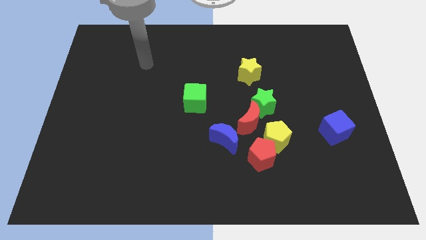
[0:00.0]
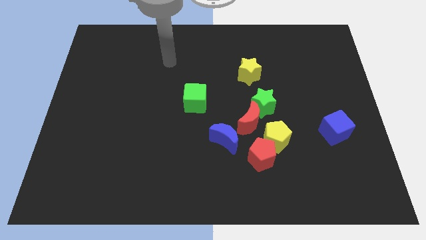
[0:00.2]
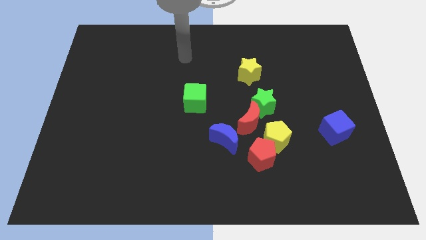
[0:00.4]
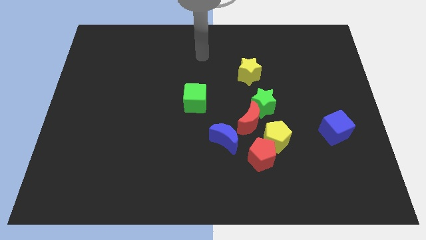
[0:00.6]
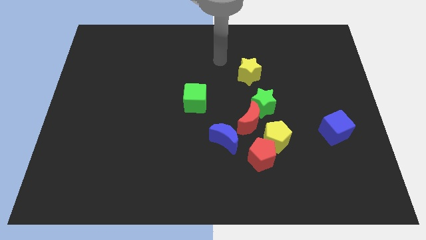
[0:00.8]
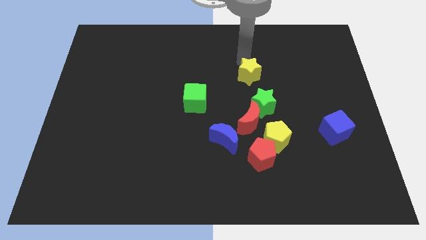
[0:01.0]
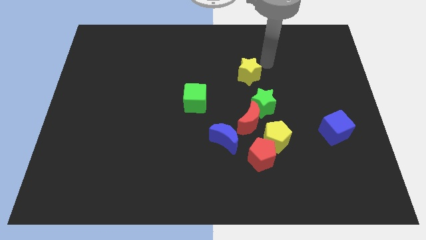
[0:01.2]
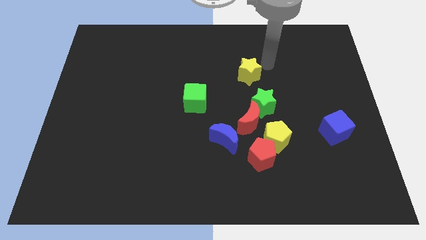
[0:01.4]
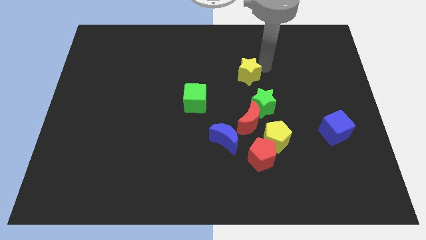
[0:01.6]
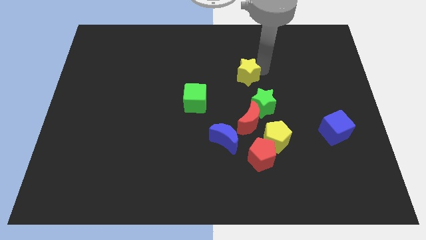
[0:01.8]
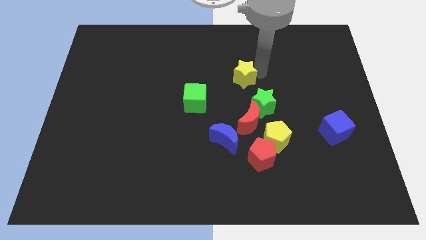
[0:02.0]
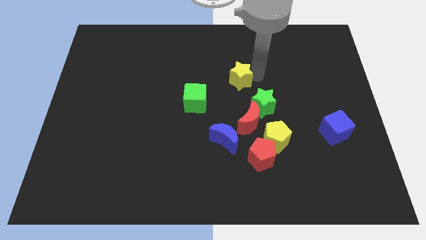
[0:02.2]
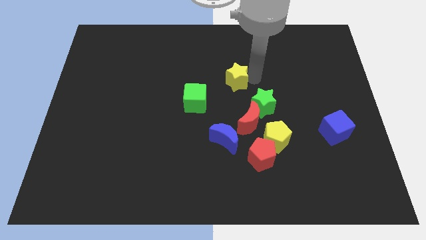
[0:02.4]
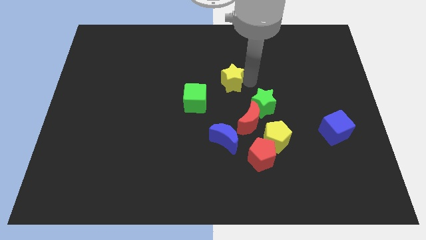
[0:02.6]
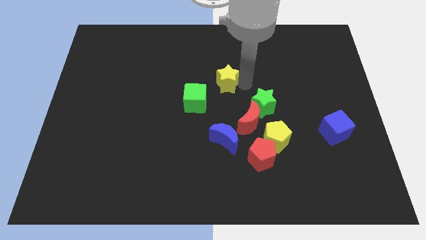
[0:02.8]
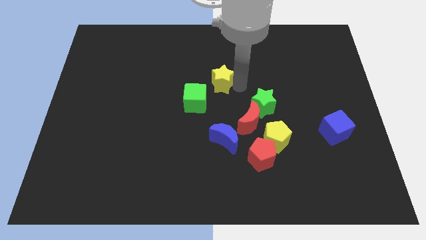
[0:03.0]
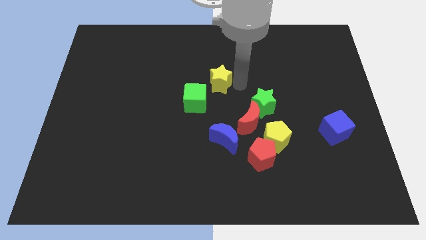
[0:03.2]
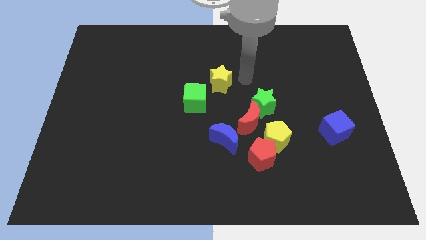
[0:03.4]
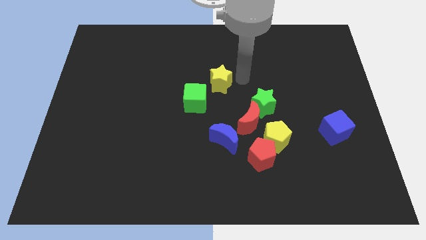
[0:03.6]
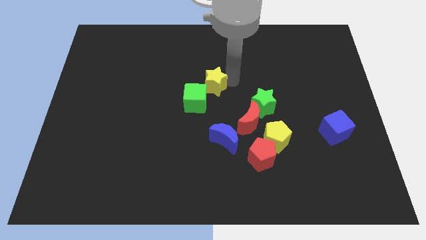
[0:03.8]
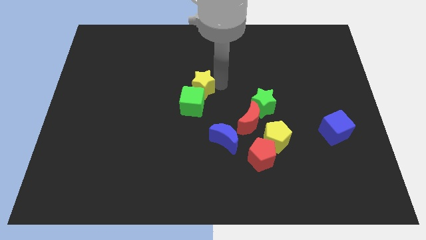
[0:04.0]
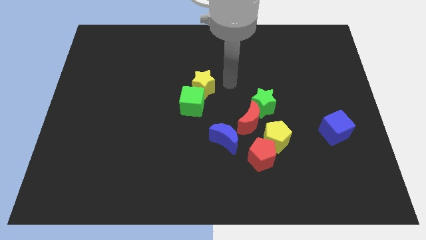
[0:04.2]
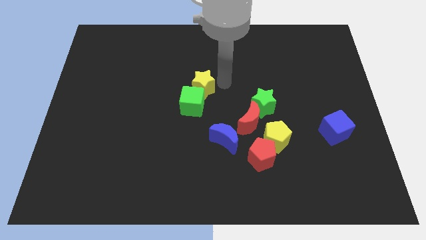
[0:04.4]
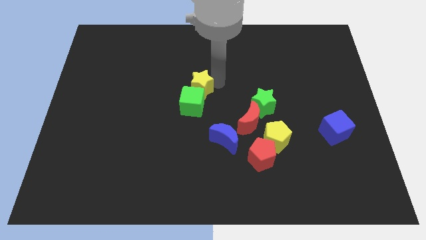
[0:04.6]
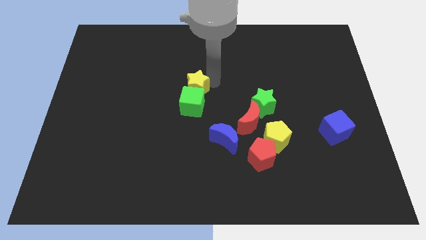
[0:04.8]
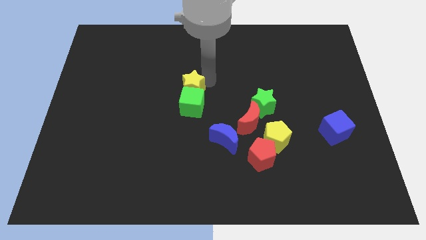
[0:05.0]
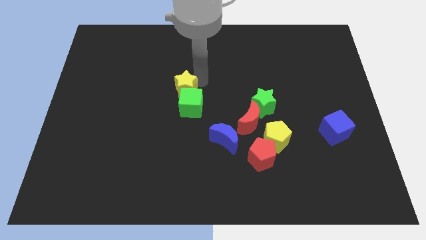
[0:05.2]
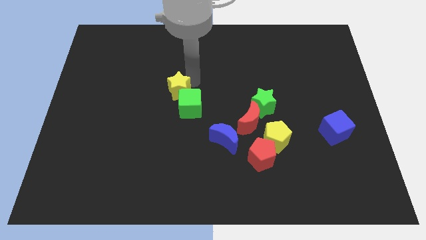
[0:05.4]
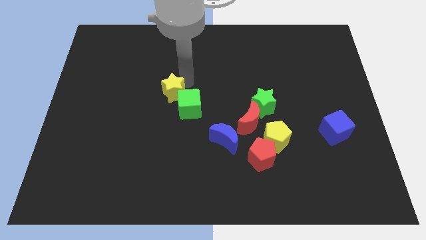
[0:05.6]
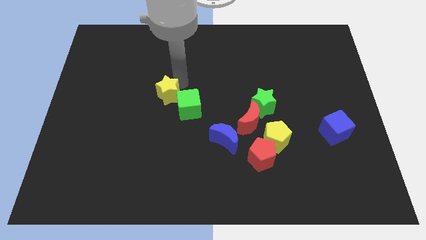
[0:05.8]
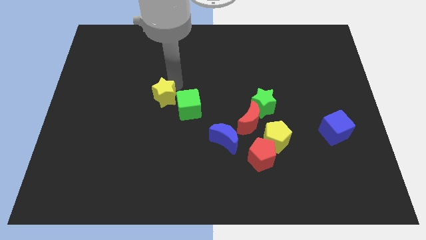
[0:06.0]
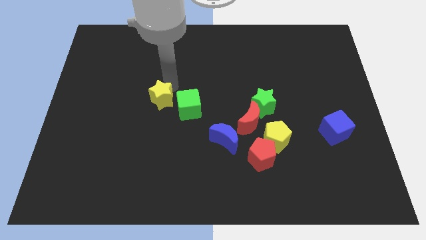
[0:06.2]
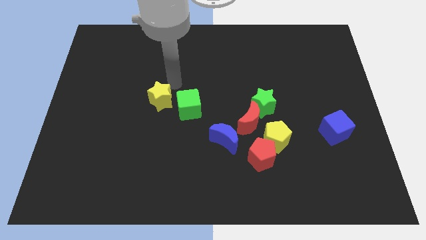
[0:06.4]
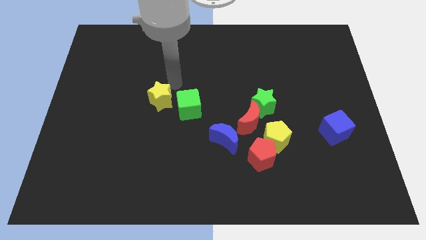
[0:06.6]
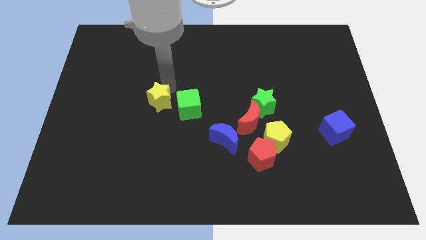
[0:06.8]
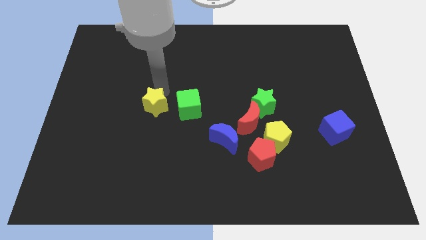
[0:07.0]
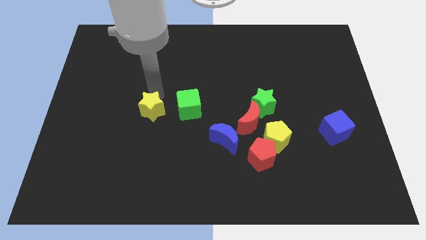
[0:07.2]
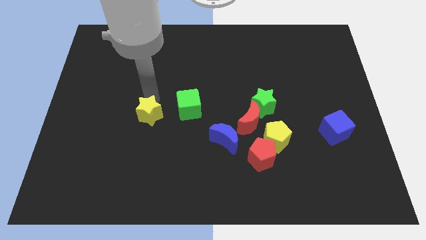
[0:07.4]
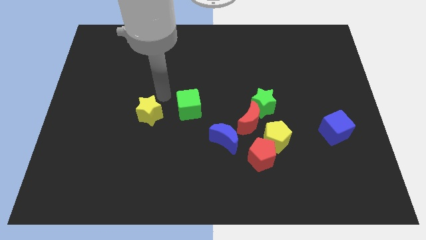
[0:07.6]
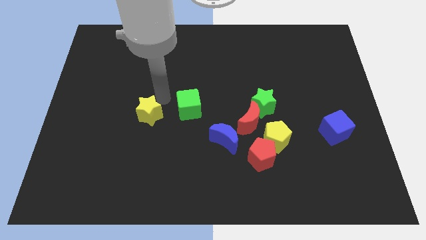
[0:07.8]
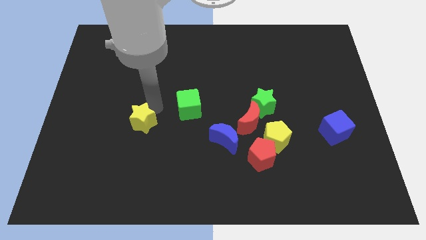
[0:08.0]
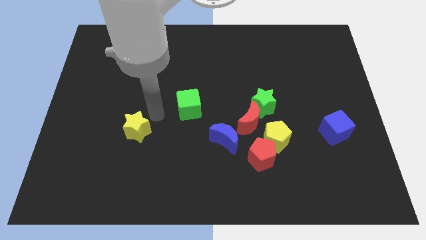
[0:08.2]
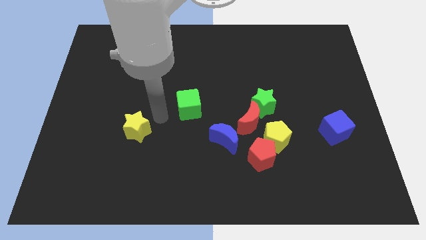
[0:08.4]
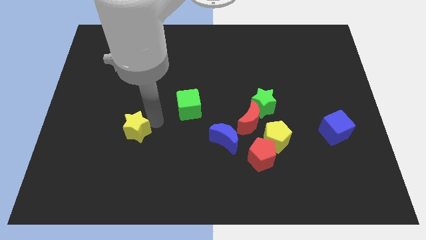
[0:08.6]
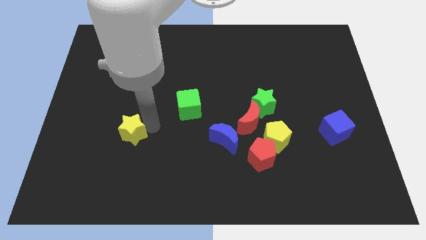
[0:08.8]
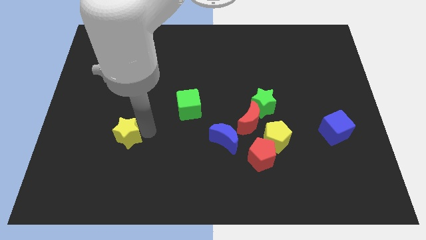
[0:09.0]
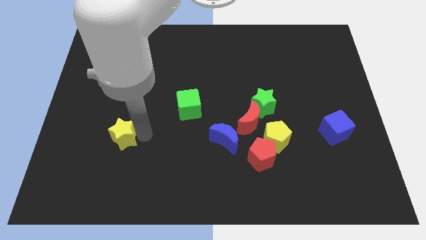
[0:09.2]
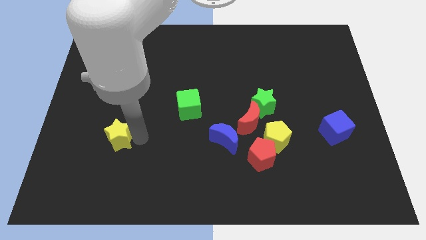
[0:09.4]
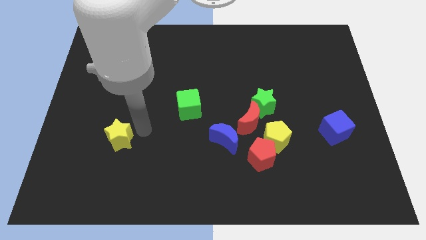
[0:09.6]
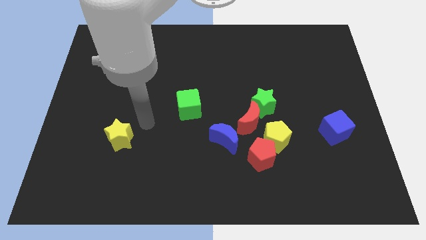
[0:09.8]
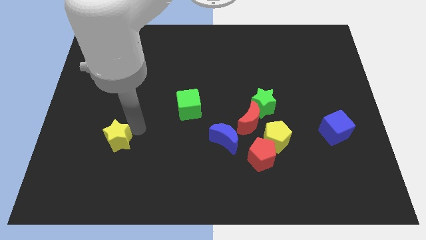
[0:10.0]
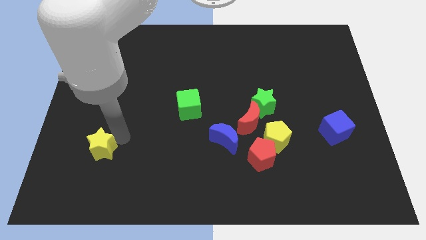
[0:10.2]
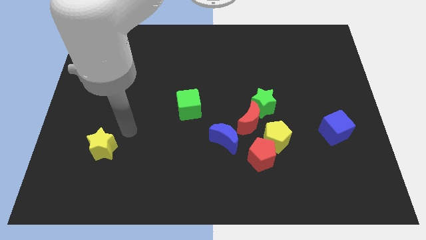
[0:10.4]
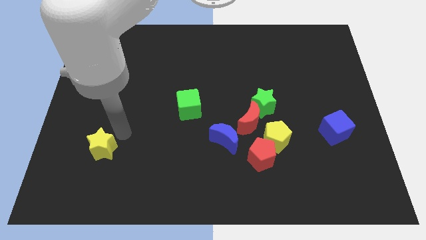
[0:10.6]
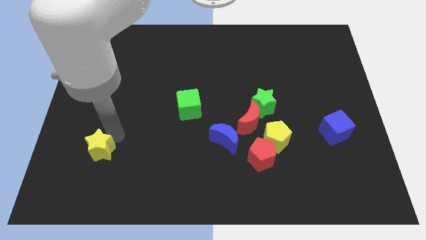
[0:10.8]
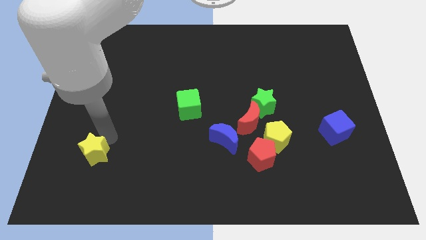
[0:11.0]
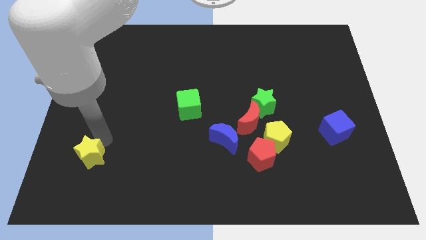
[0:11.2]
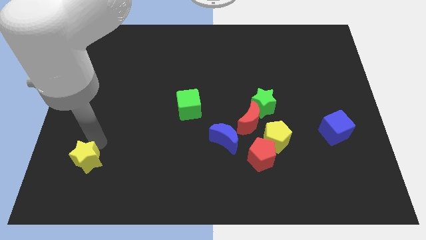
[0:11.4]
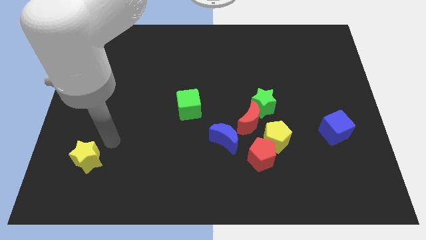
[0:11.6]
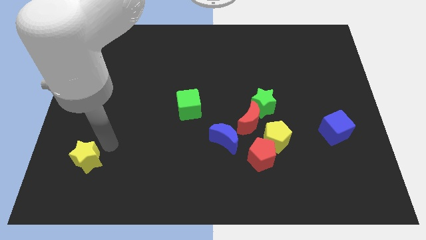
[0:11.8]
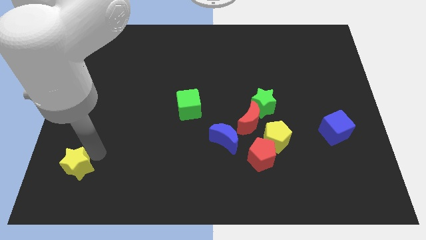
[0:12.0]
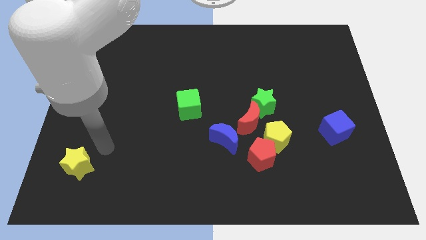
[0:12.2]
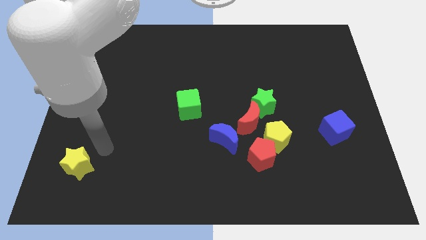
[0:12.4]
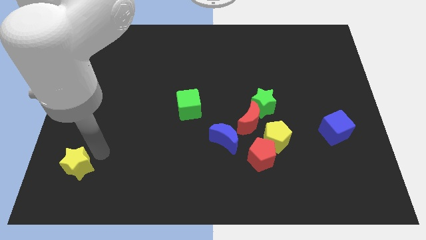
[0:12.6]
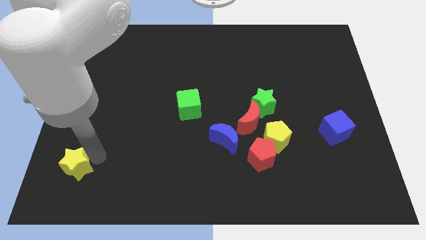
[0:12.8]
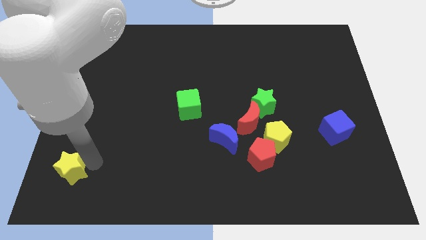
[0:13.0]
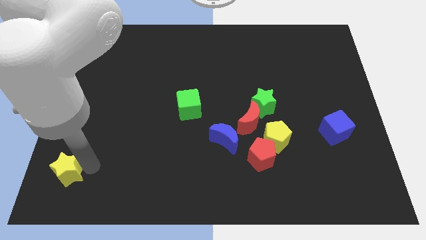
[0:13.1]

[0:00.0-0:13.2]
put the yellow star to the lower left corner

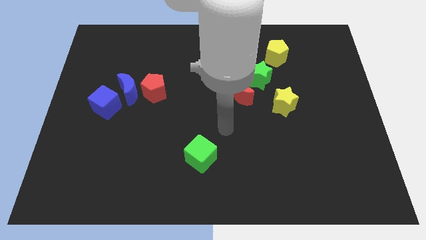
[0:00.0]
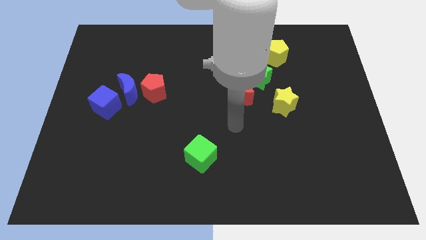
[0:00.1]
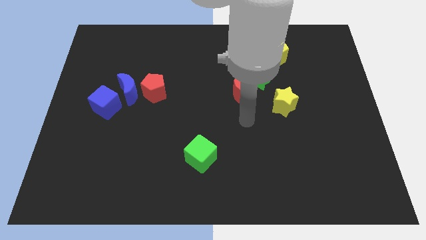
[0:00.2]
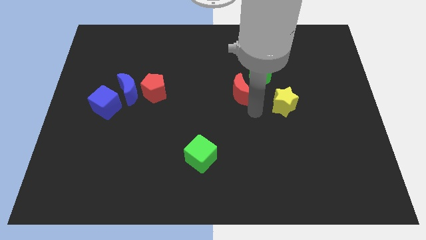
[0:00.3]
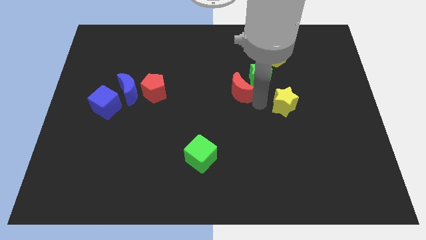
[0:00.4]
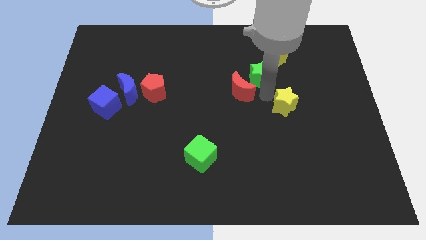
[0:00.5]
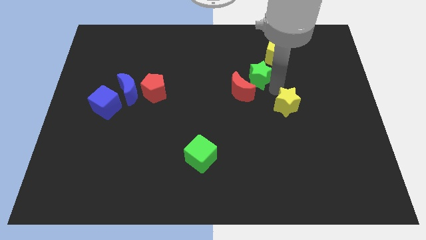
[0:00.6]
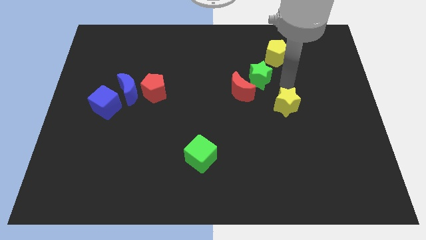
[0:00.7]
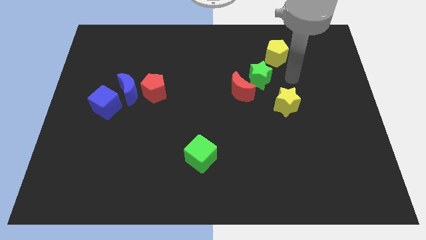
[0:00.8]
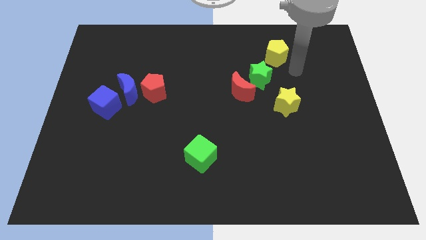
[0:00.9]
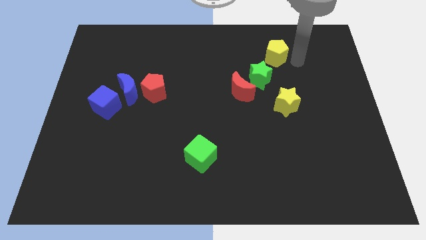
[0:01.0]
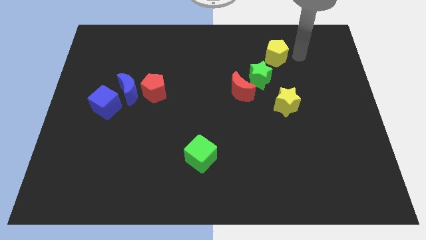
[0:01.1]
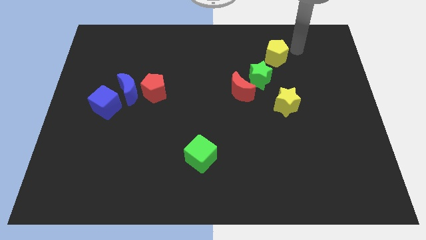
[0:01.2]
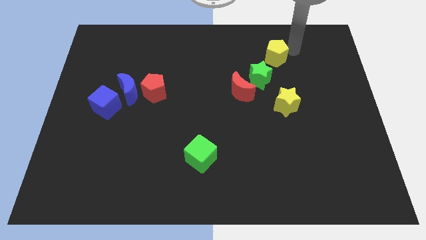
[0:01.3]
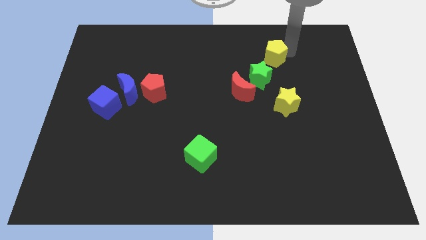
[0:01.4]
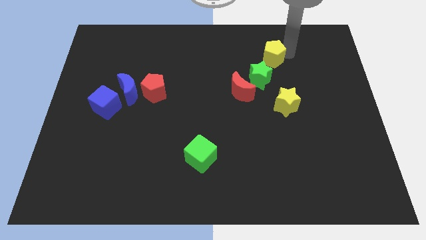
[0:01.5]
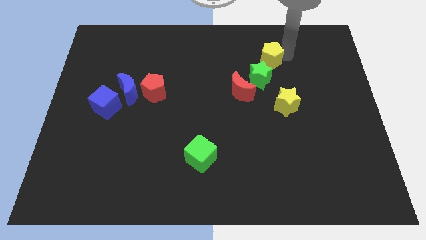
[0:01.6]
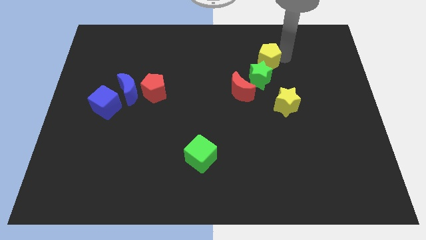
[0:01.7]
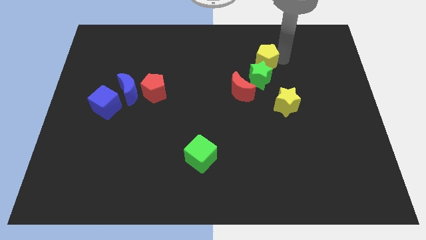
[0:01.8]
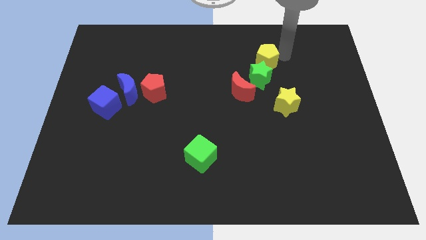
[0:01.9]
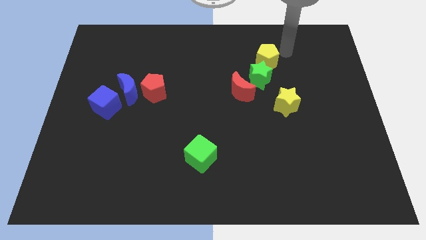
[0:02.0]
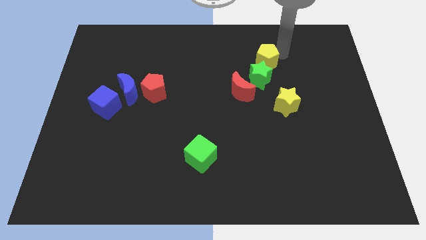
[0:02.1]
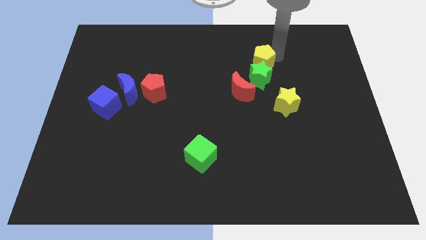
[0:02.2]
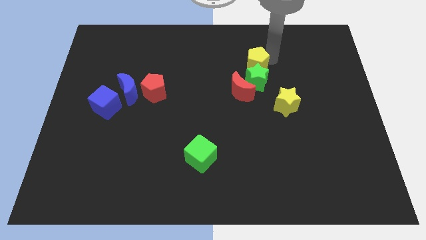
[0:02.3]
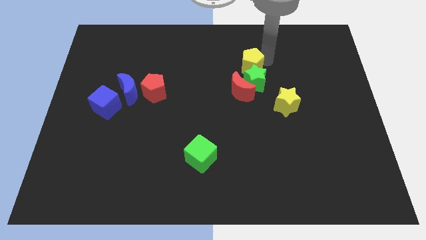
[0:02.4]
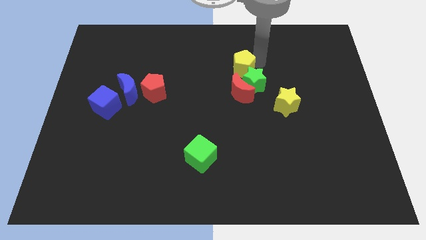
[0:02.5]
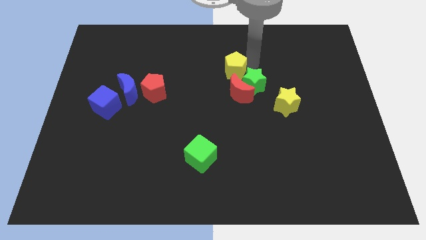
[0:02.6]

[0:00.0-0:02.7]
slide the yellow pentagon to the center
